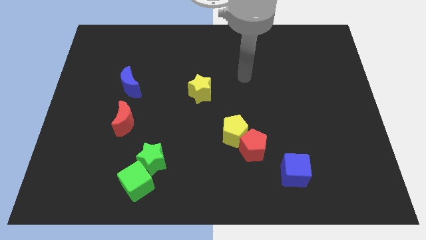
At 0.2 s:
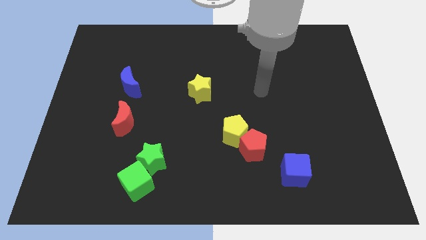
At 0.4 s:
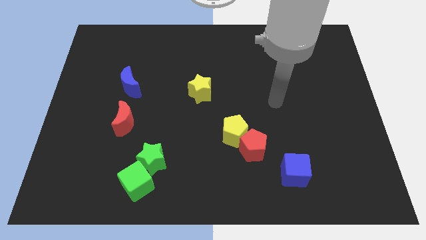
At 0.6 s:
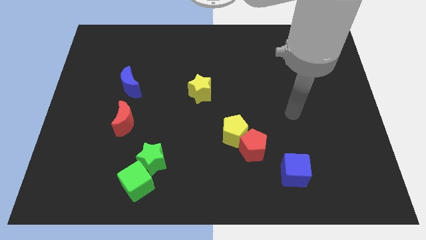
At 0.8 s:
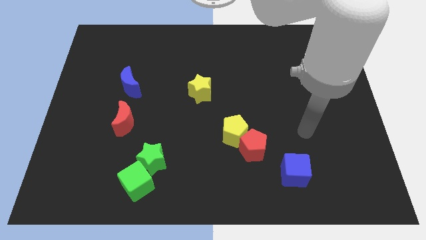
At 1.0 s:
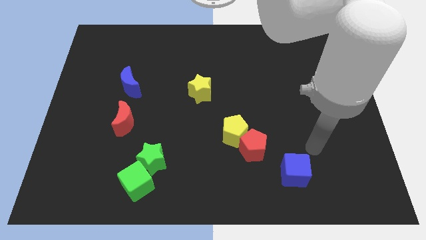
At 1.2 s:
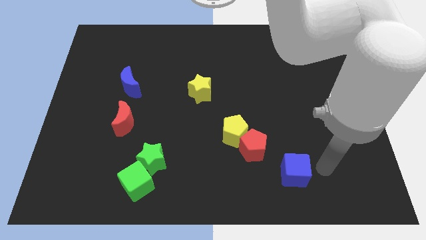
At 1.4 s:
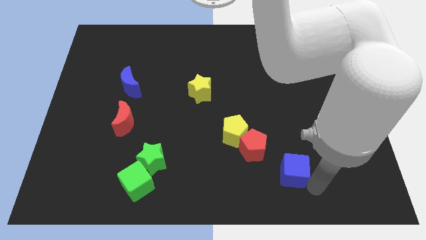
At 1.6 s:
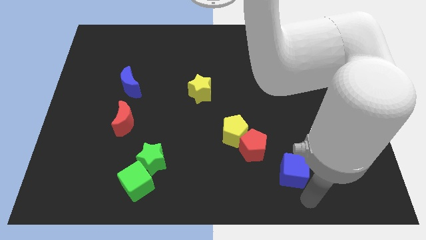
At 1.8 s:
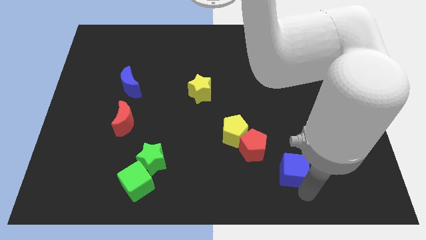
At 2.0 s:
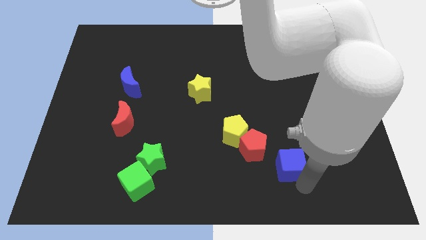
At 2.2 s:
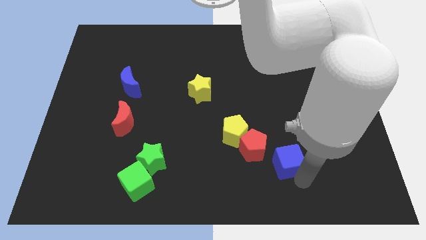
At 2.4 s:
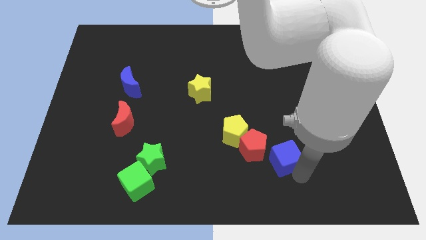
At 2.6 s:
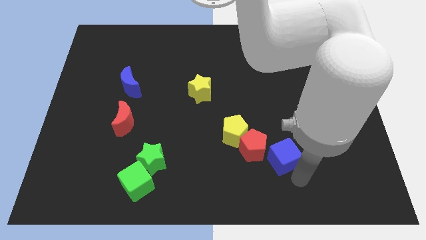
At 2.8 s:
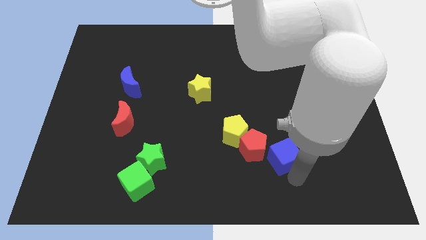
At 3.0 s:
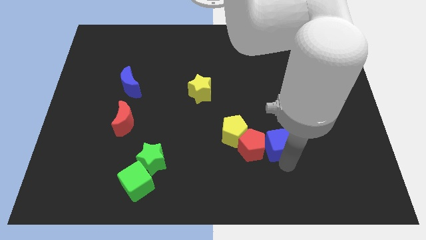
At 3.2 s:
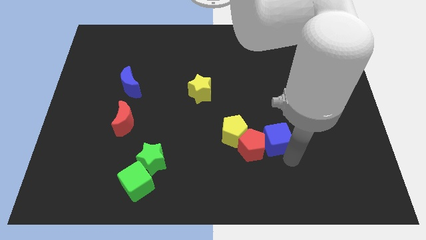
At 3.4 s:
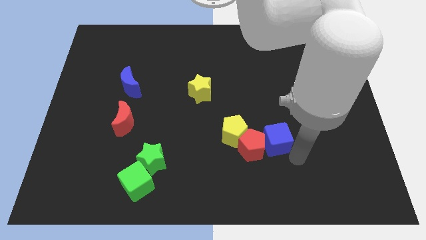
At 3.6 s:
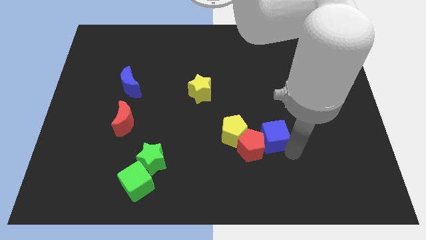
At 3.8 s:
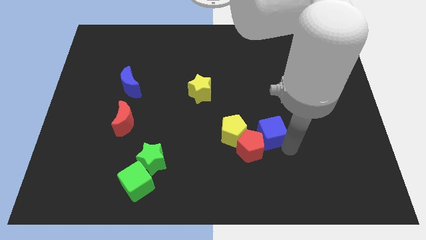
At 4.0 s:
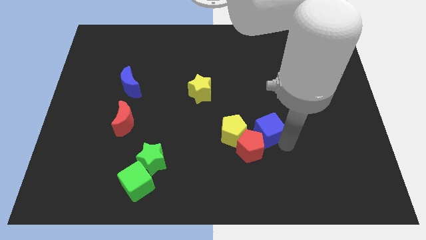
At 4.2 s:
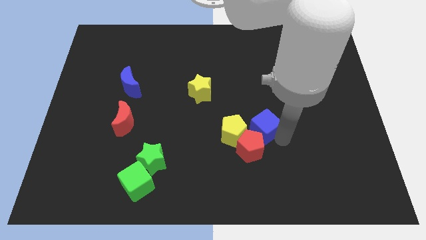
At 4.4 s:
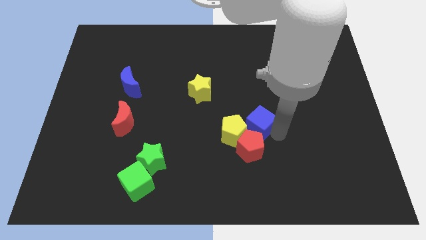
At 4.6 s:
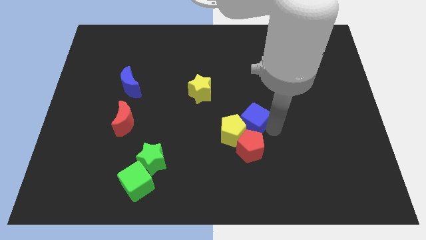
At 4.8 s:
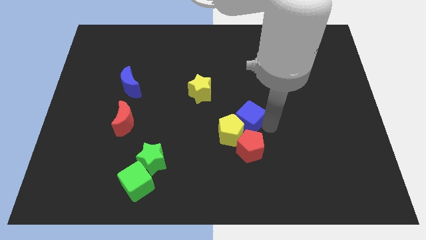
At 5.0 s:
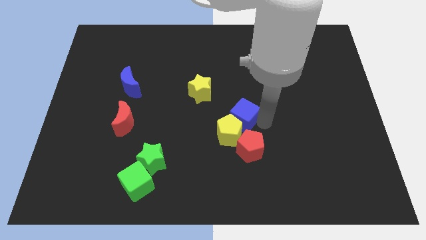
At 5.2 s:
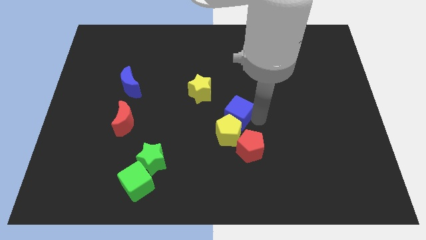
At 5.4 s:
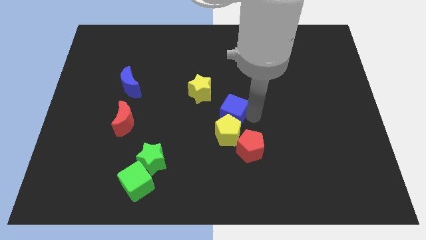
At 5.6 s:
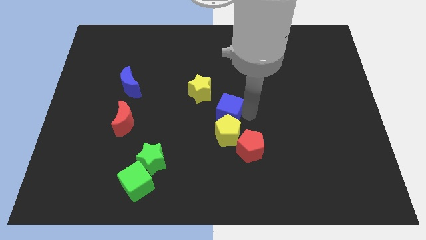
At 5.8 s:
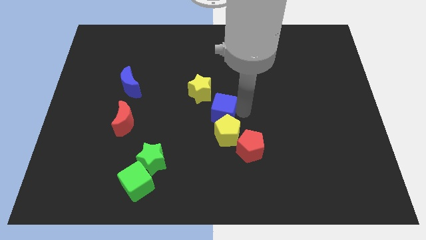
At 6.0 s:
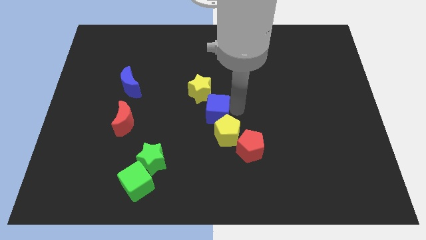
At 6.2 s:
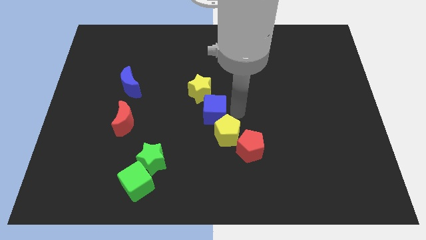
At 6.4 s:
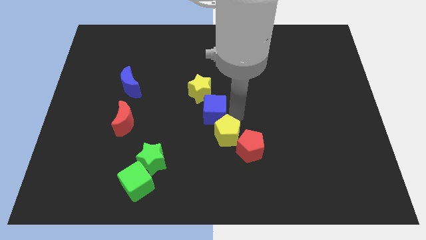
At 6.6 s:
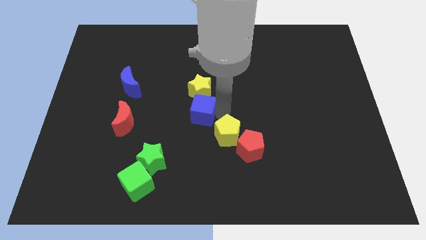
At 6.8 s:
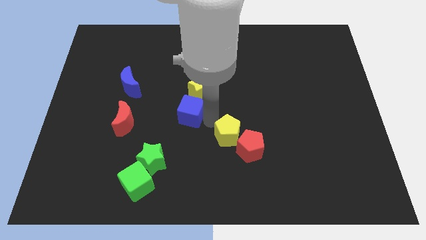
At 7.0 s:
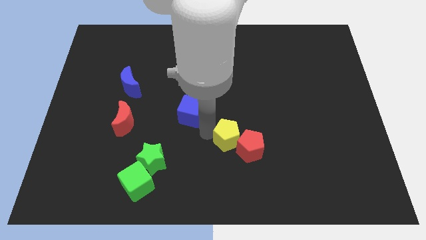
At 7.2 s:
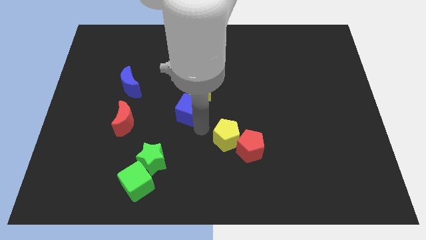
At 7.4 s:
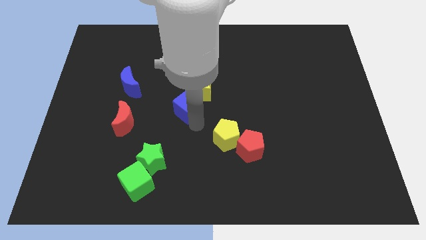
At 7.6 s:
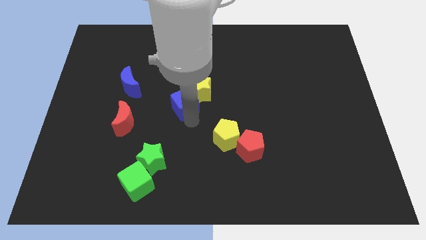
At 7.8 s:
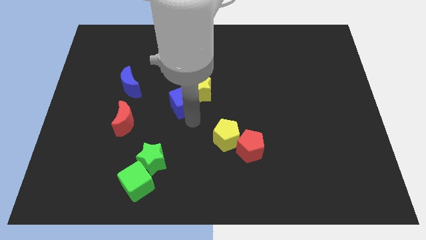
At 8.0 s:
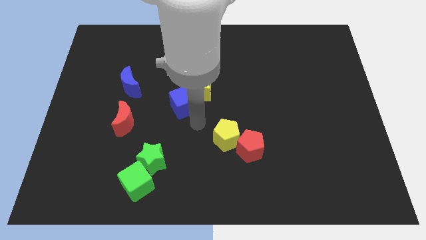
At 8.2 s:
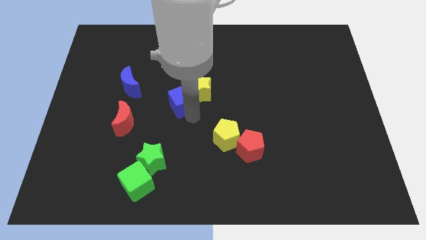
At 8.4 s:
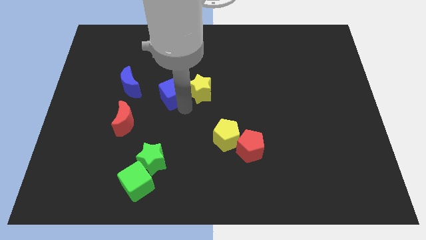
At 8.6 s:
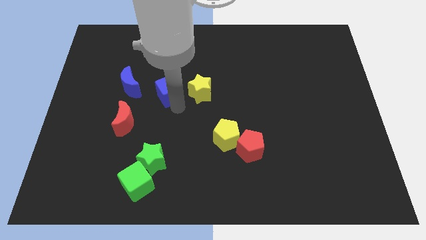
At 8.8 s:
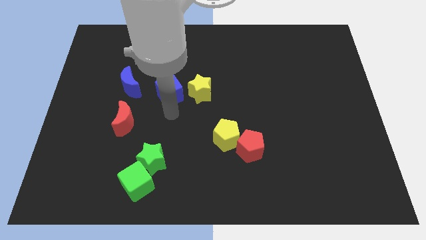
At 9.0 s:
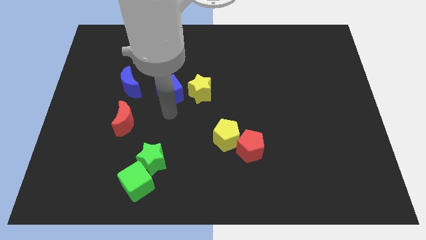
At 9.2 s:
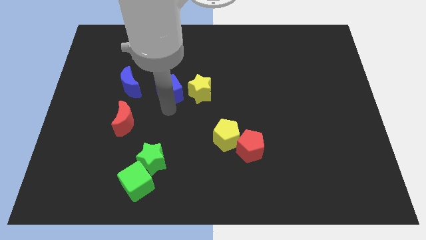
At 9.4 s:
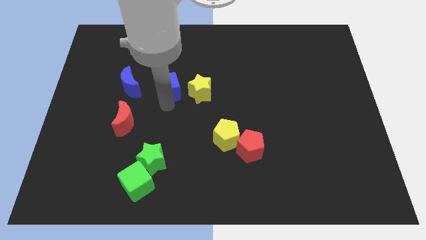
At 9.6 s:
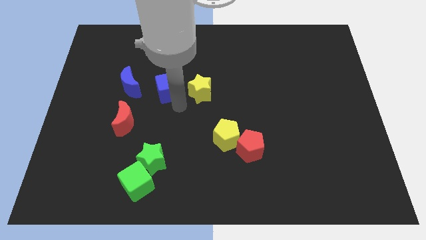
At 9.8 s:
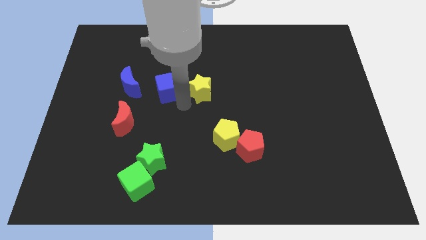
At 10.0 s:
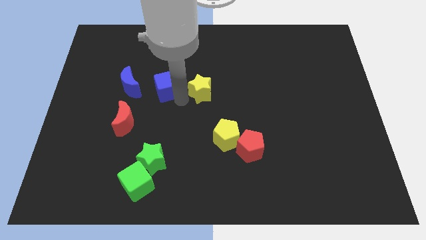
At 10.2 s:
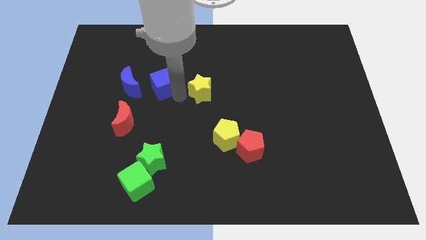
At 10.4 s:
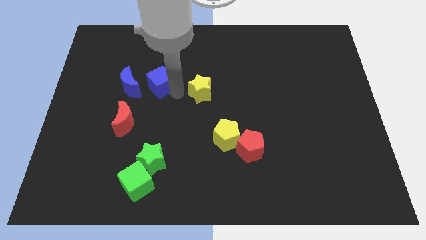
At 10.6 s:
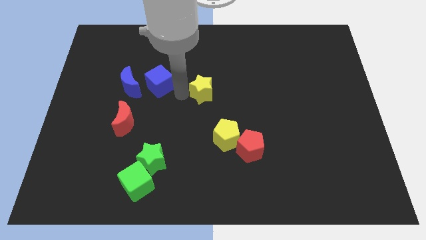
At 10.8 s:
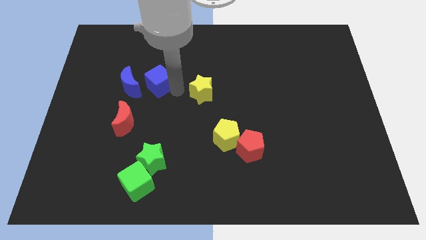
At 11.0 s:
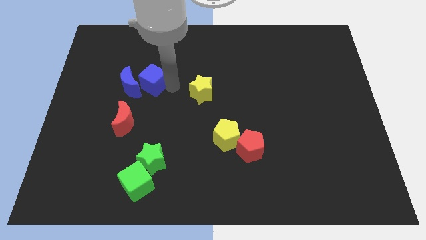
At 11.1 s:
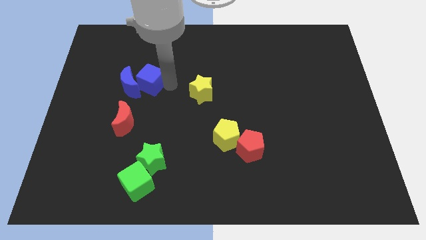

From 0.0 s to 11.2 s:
push the blue cube above the red moon

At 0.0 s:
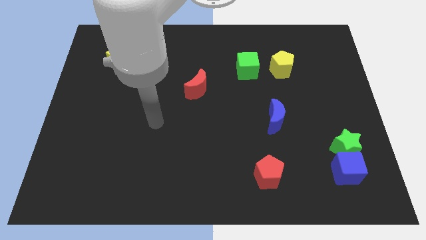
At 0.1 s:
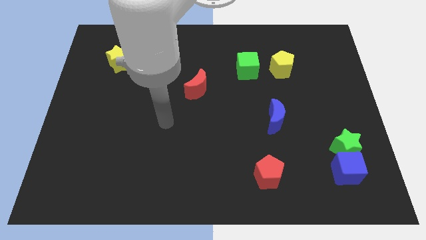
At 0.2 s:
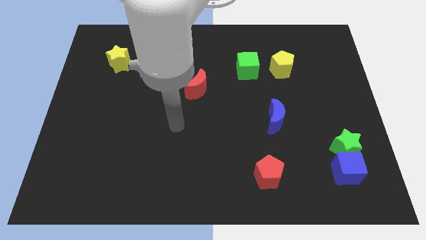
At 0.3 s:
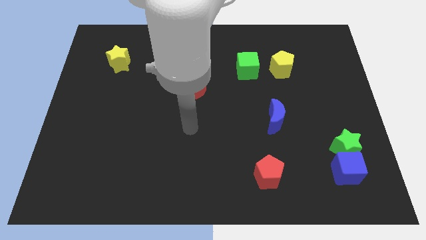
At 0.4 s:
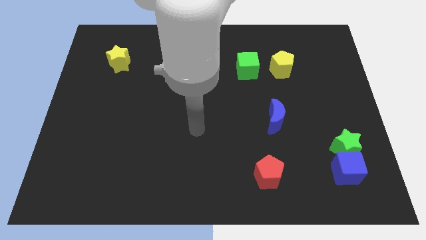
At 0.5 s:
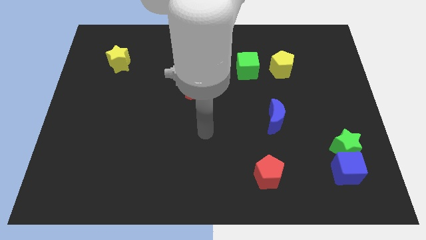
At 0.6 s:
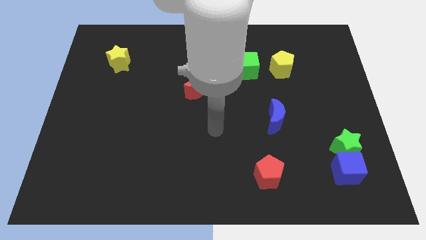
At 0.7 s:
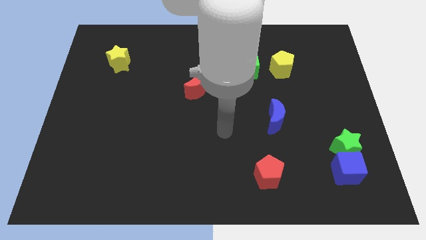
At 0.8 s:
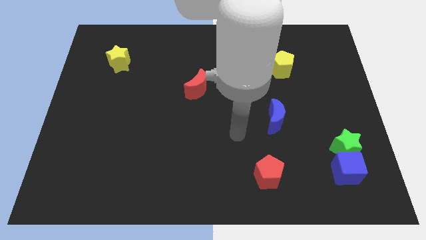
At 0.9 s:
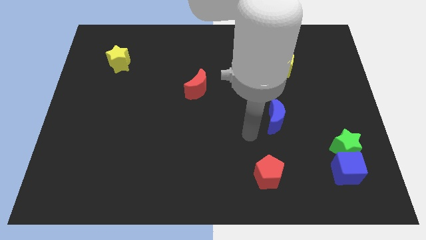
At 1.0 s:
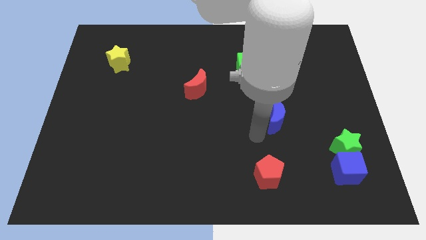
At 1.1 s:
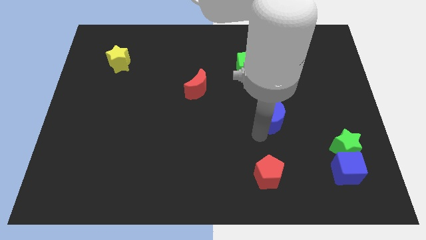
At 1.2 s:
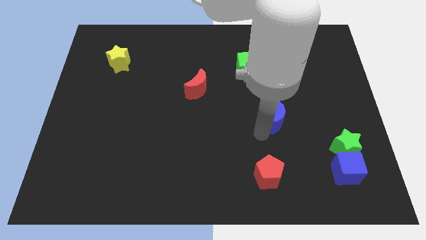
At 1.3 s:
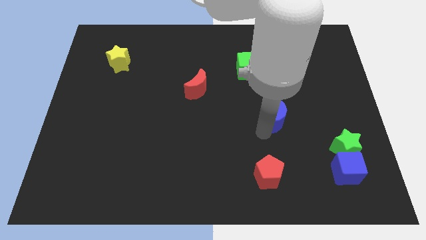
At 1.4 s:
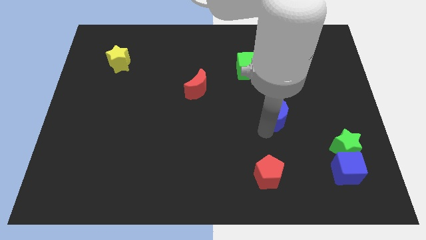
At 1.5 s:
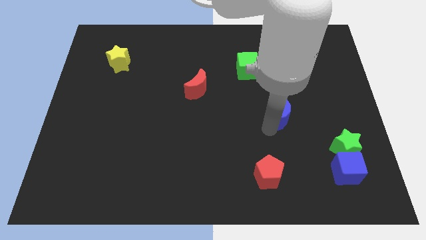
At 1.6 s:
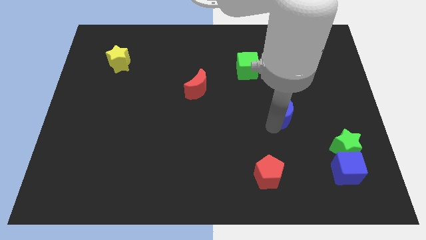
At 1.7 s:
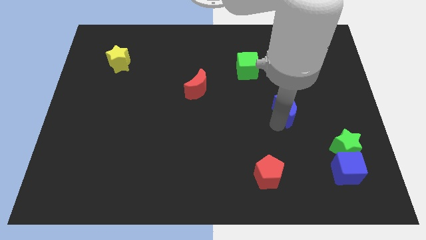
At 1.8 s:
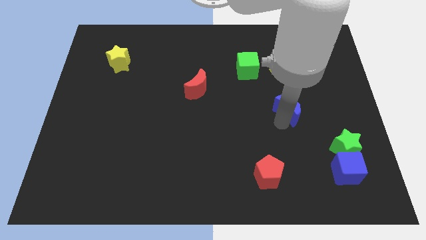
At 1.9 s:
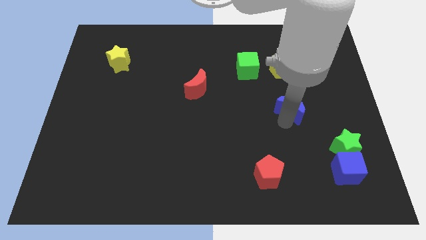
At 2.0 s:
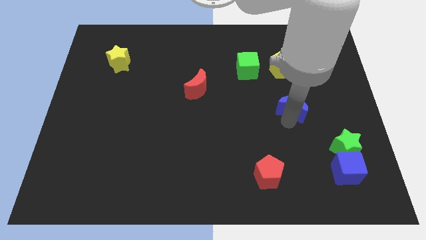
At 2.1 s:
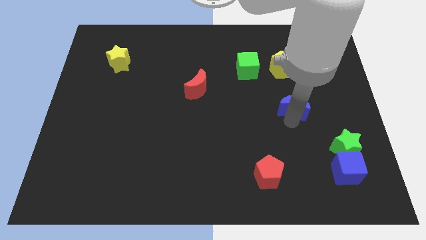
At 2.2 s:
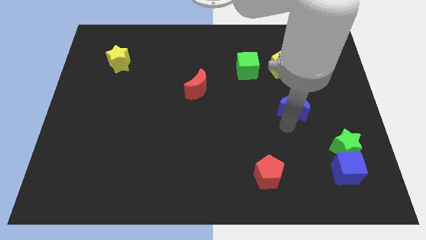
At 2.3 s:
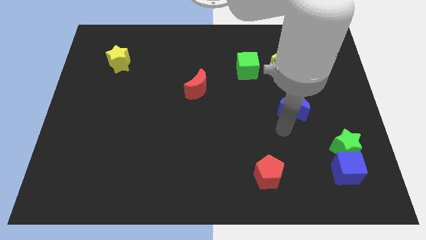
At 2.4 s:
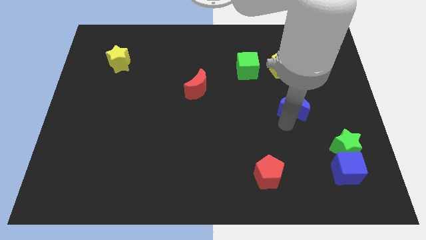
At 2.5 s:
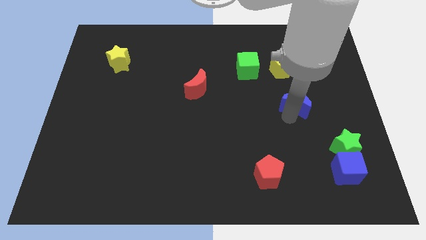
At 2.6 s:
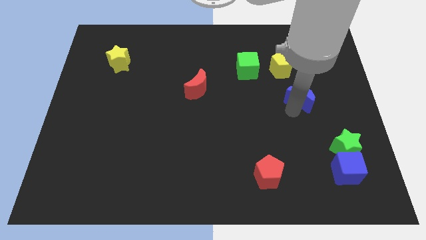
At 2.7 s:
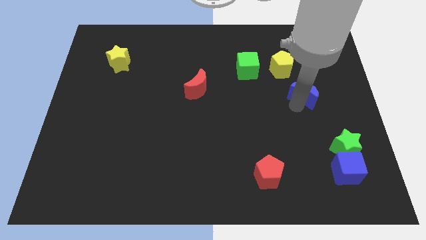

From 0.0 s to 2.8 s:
move the blue moon diagonally down and to the right of the yellow pentagon
